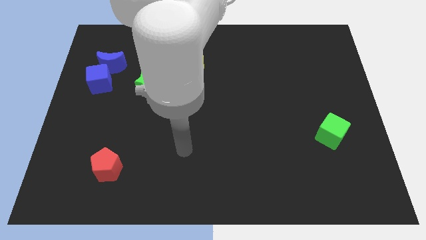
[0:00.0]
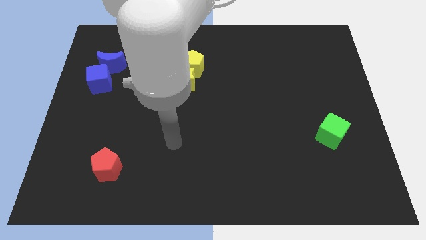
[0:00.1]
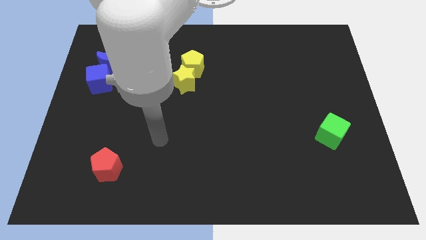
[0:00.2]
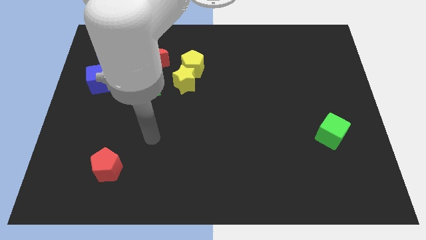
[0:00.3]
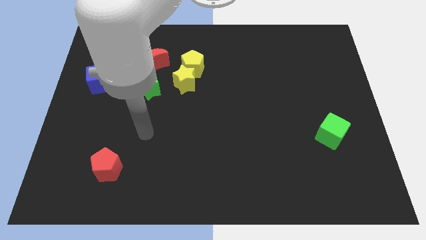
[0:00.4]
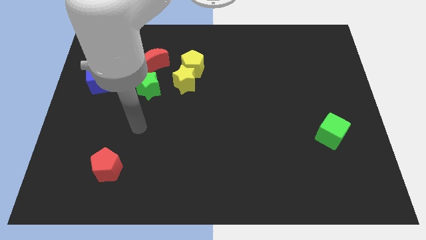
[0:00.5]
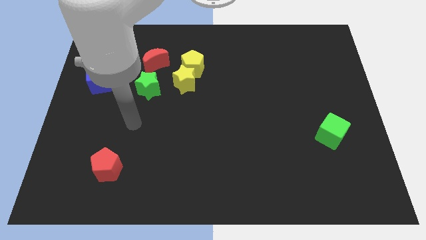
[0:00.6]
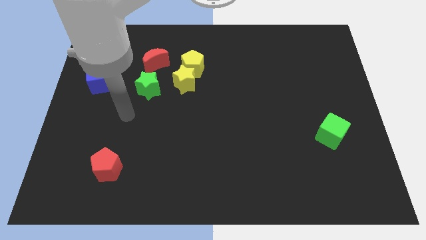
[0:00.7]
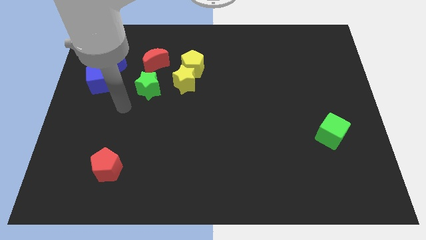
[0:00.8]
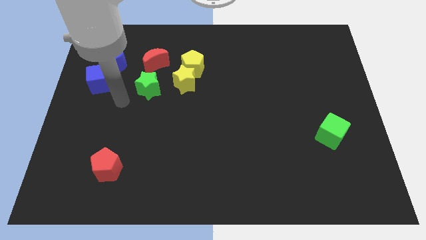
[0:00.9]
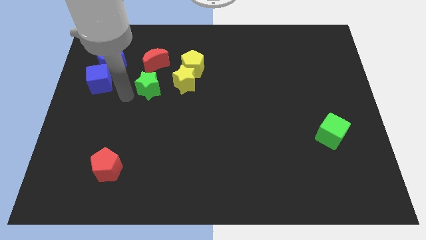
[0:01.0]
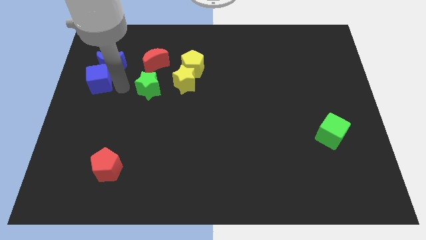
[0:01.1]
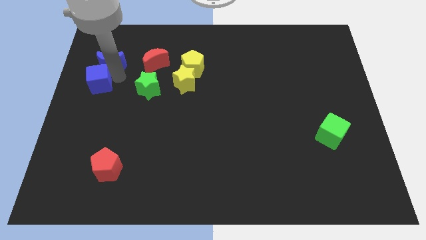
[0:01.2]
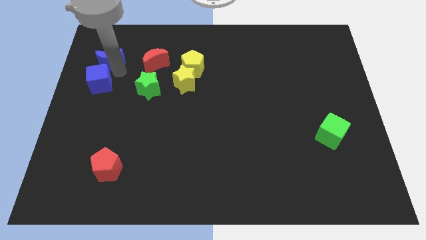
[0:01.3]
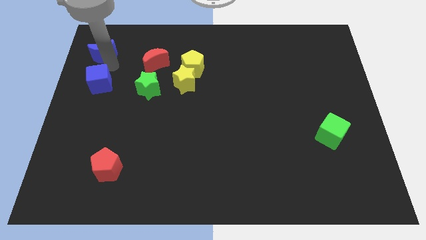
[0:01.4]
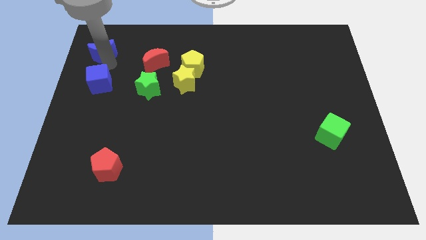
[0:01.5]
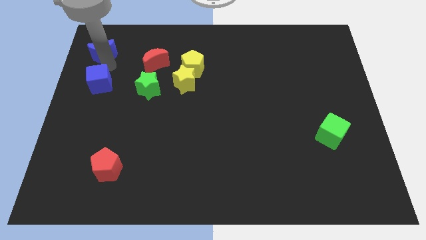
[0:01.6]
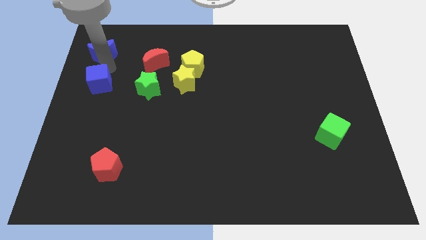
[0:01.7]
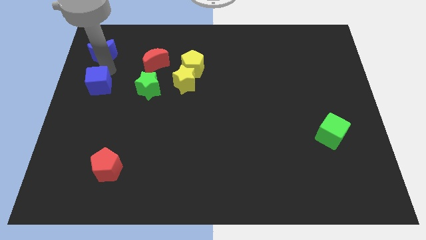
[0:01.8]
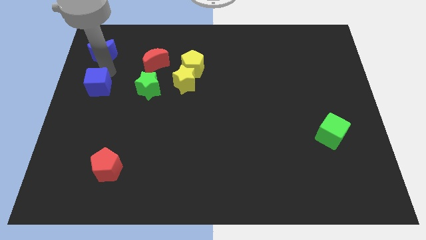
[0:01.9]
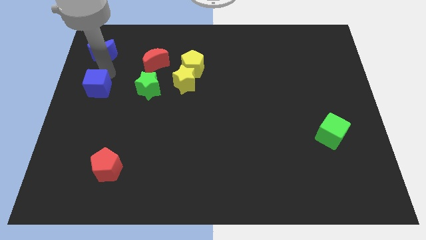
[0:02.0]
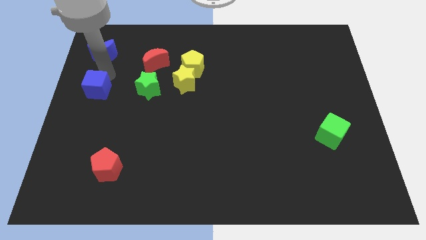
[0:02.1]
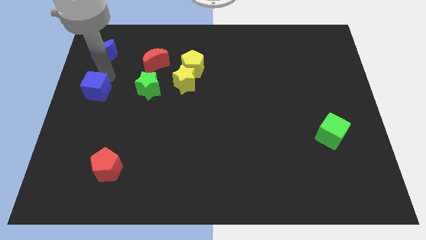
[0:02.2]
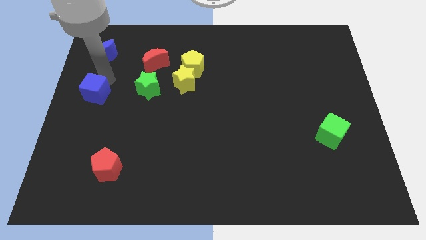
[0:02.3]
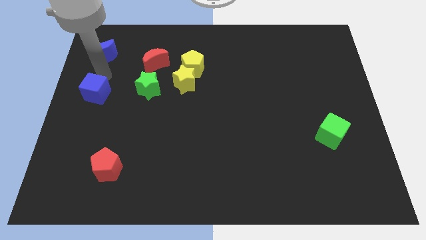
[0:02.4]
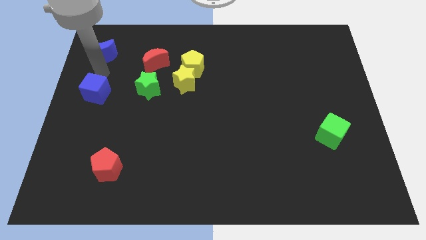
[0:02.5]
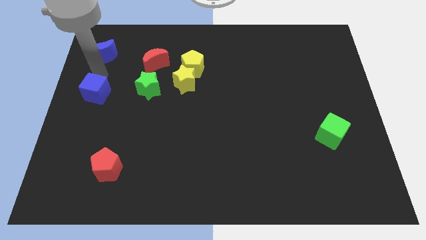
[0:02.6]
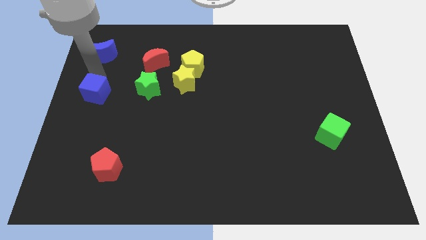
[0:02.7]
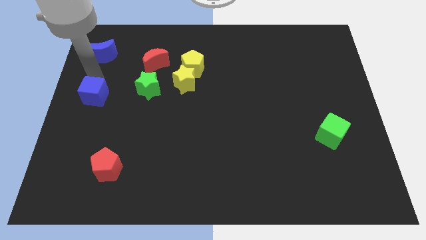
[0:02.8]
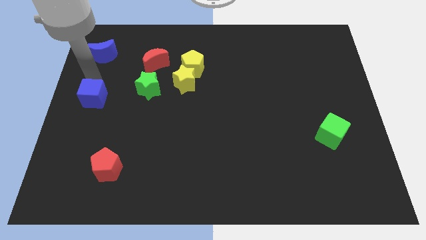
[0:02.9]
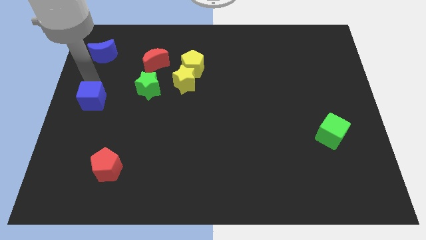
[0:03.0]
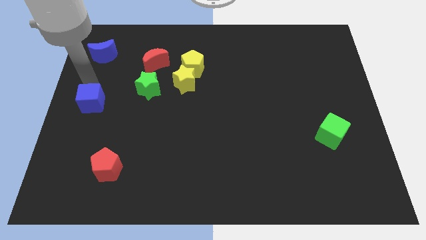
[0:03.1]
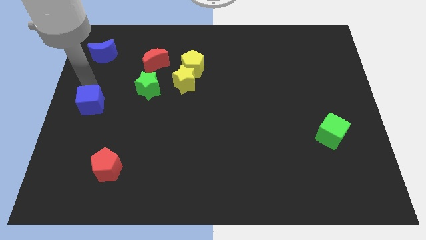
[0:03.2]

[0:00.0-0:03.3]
slightly push the blue cube down

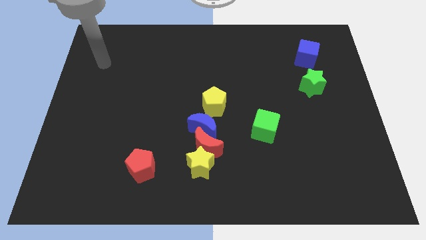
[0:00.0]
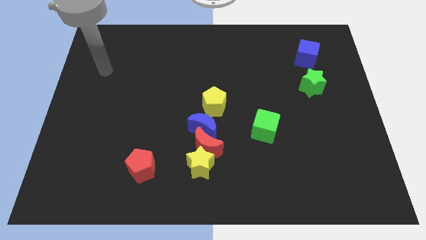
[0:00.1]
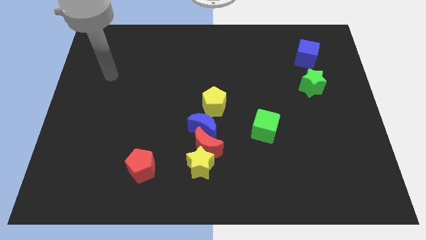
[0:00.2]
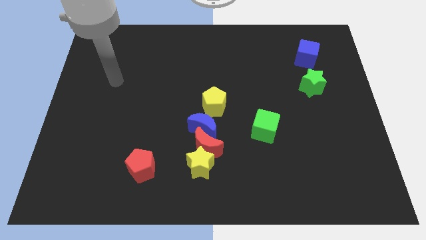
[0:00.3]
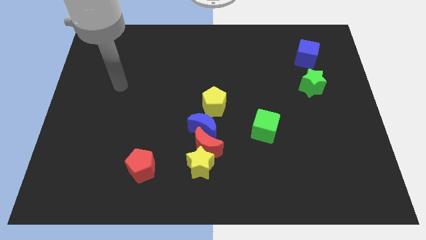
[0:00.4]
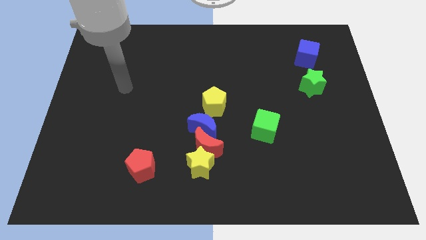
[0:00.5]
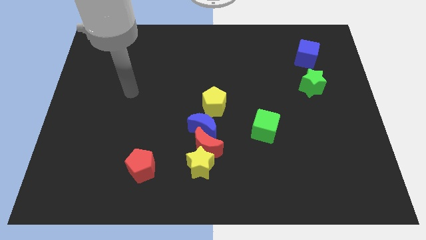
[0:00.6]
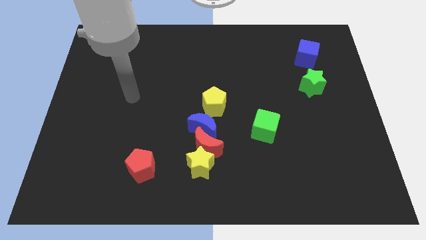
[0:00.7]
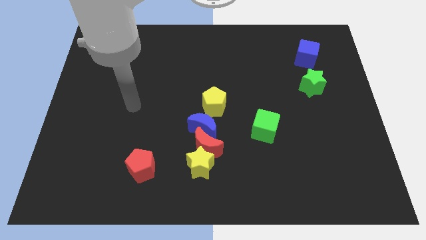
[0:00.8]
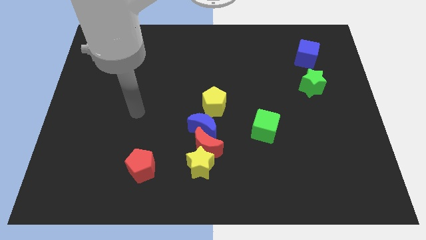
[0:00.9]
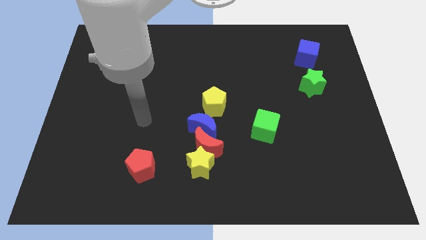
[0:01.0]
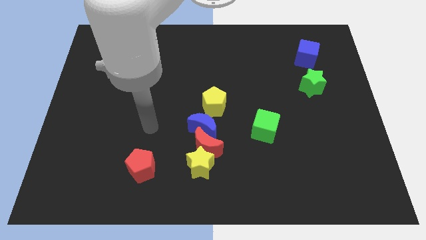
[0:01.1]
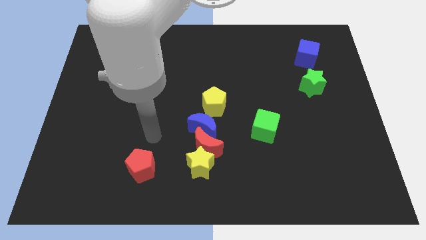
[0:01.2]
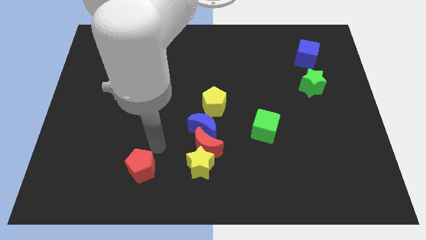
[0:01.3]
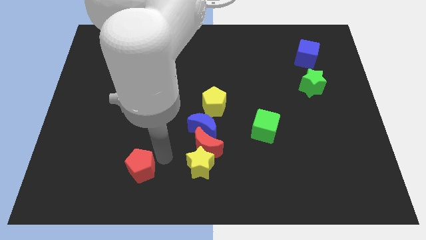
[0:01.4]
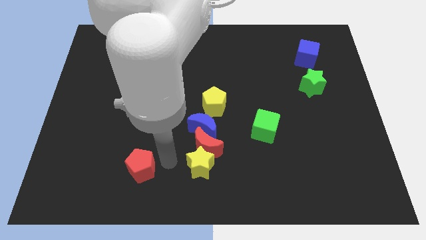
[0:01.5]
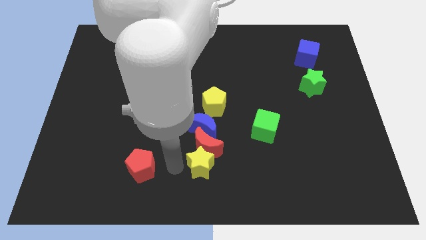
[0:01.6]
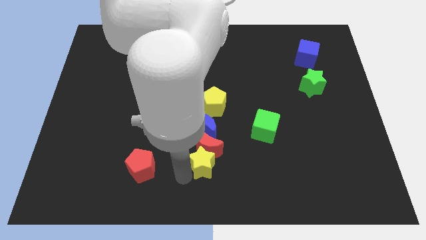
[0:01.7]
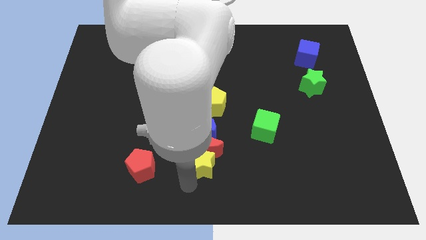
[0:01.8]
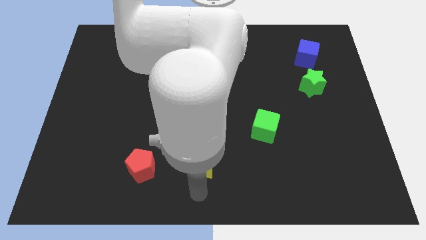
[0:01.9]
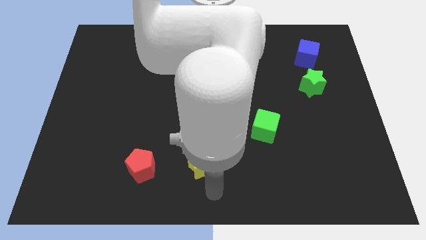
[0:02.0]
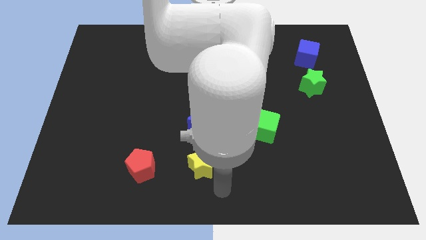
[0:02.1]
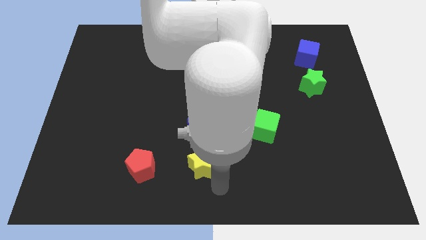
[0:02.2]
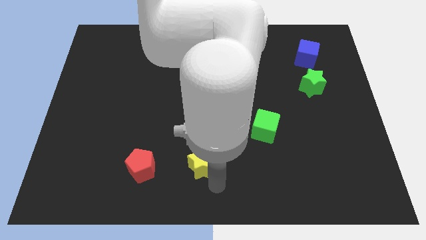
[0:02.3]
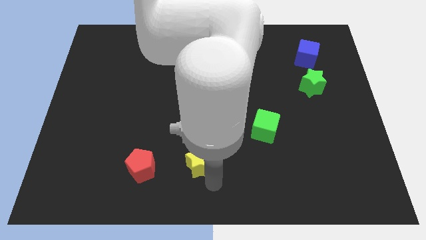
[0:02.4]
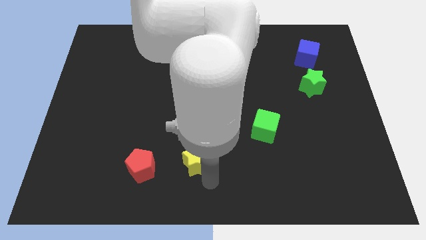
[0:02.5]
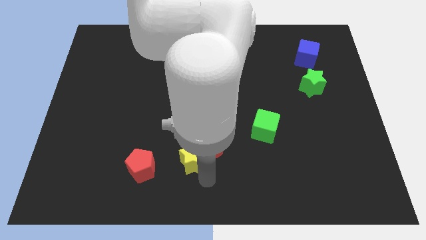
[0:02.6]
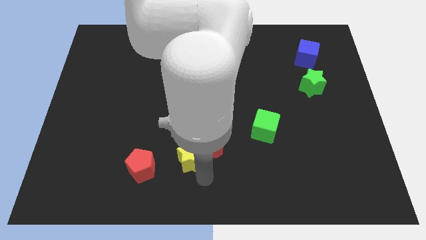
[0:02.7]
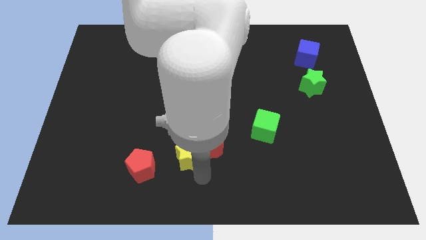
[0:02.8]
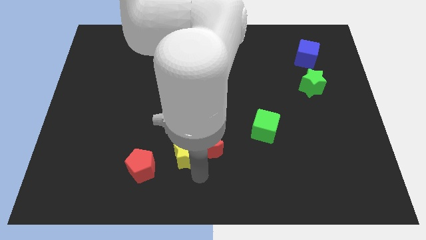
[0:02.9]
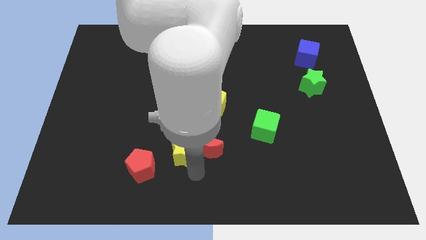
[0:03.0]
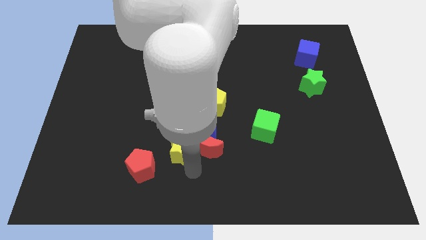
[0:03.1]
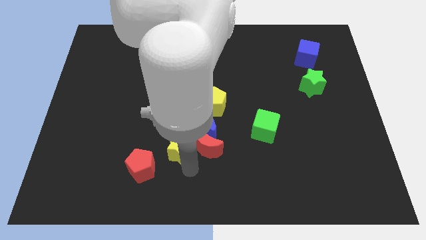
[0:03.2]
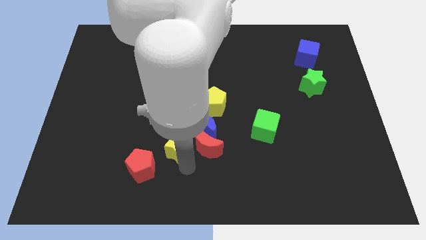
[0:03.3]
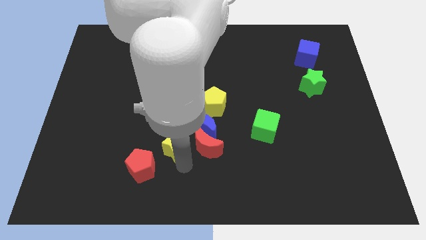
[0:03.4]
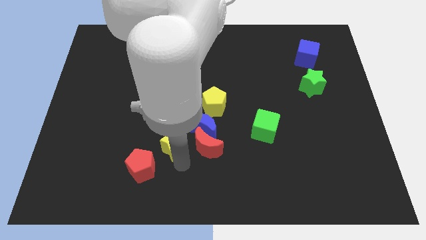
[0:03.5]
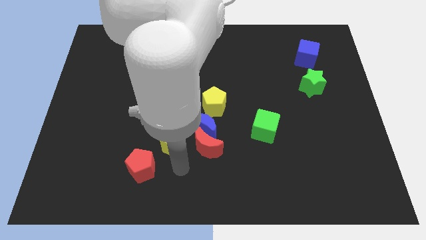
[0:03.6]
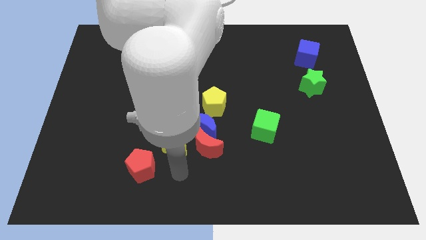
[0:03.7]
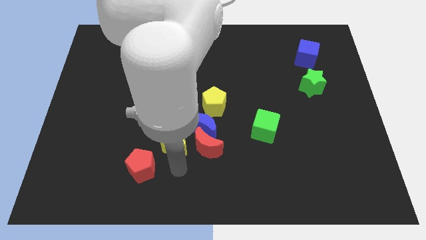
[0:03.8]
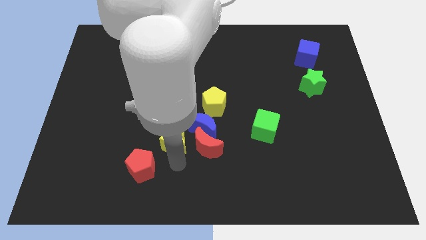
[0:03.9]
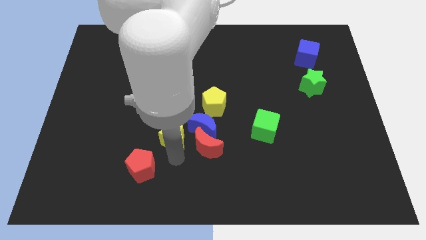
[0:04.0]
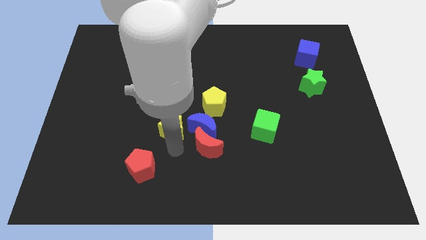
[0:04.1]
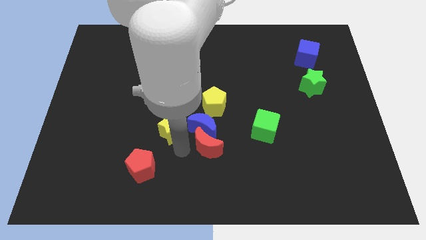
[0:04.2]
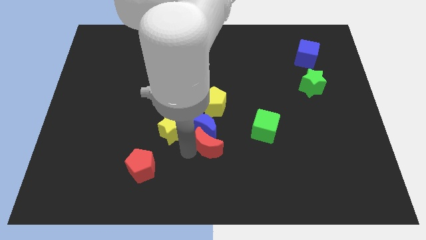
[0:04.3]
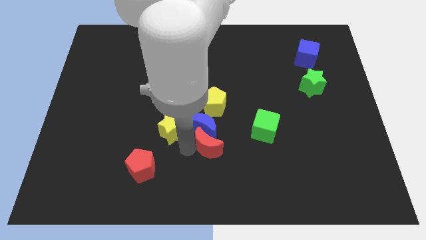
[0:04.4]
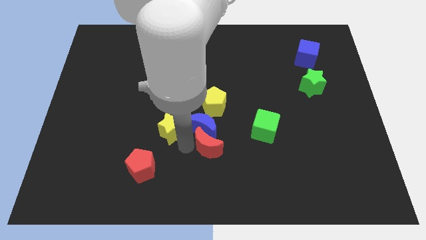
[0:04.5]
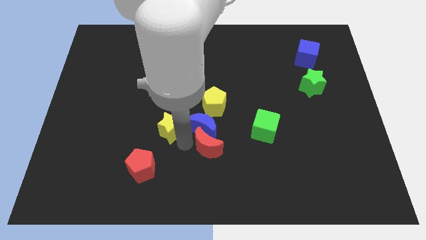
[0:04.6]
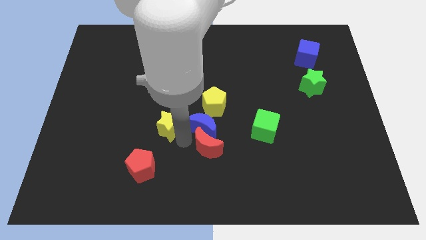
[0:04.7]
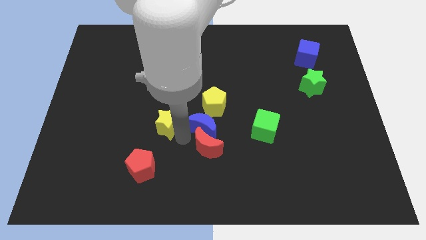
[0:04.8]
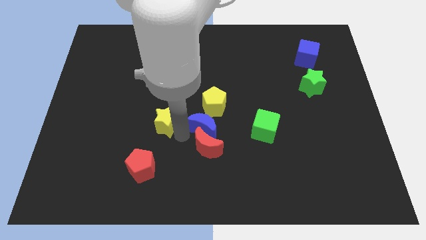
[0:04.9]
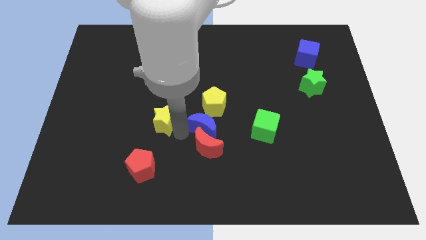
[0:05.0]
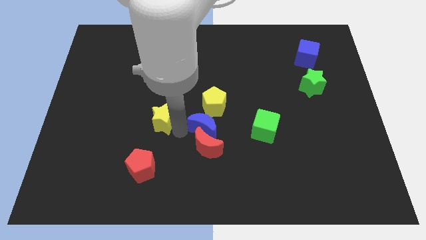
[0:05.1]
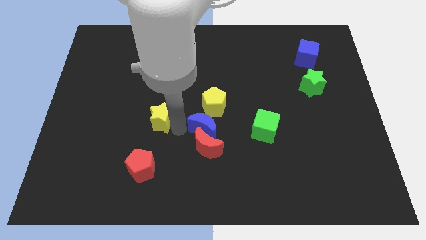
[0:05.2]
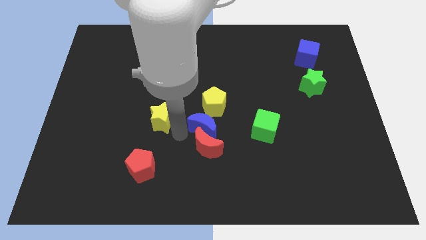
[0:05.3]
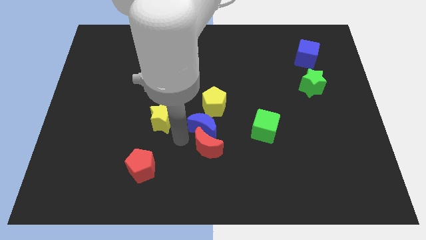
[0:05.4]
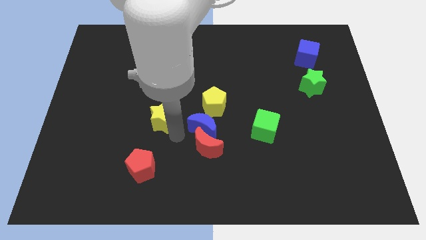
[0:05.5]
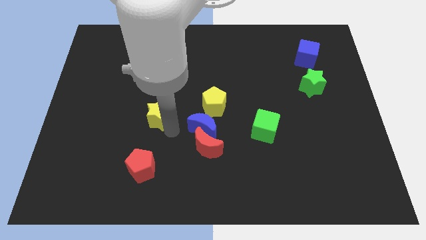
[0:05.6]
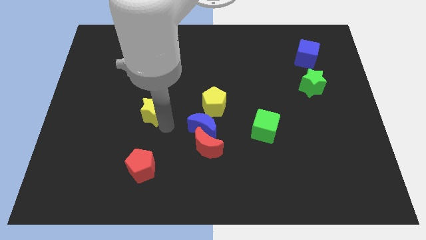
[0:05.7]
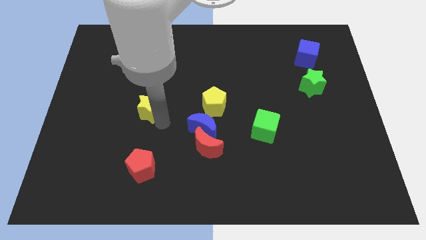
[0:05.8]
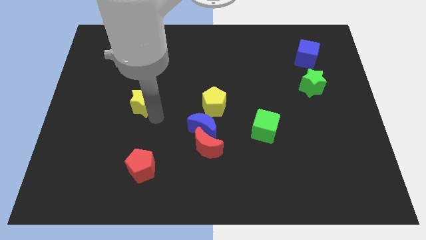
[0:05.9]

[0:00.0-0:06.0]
slide the yellow star upwards and to the left
